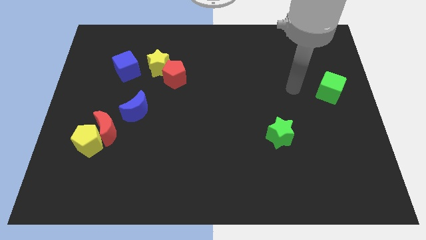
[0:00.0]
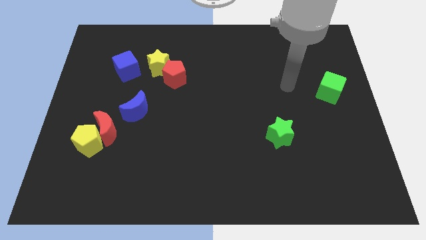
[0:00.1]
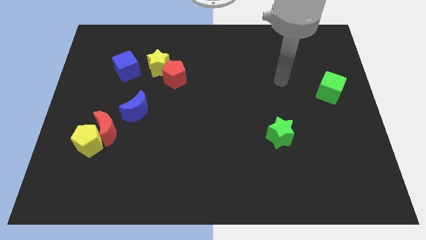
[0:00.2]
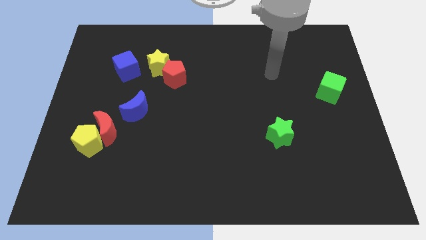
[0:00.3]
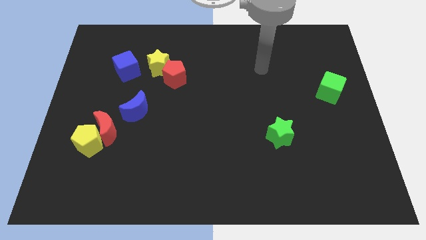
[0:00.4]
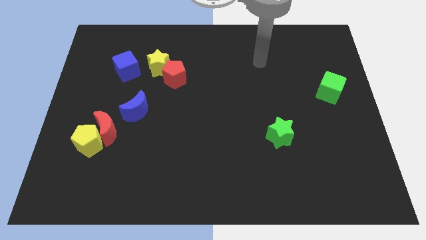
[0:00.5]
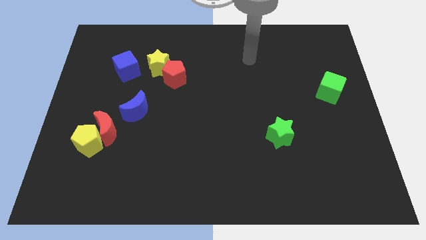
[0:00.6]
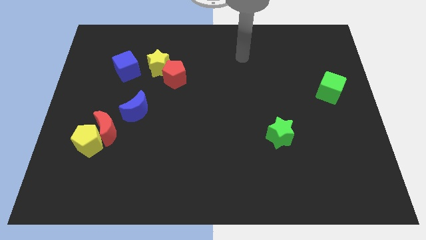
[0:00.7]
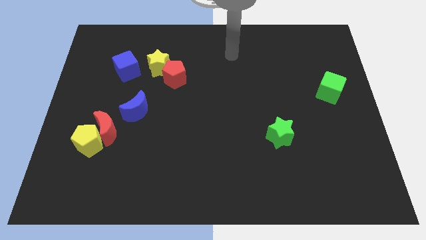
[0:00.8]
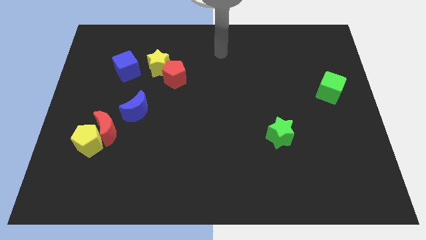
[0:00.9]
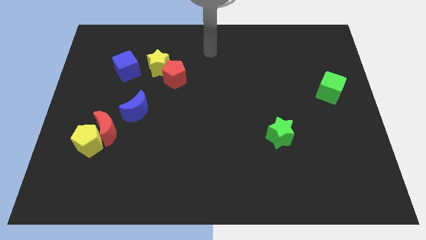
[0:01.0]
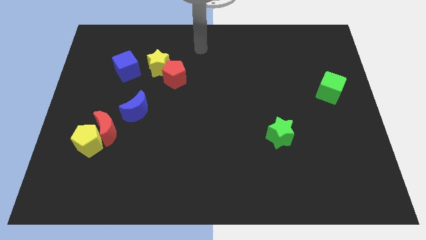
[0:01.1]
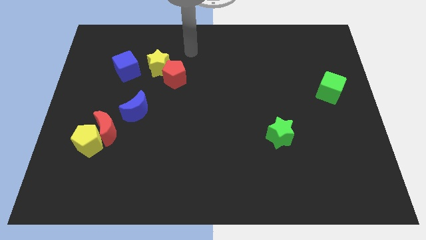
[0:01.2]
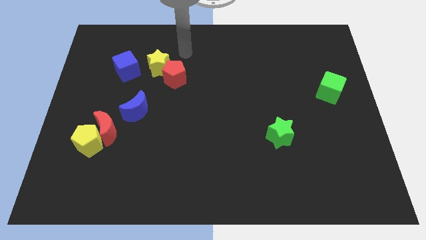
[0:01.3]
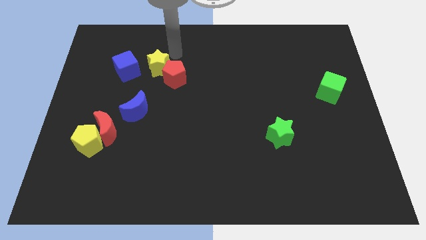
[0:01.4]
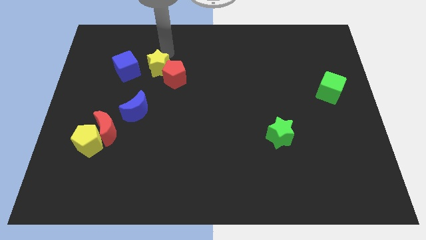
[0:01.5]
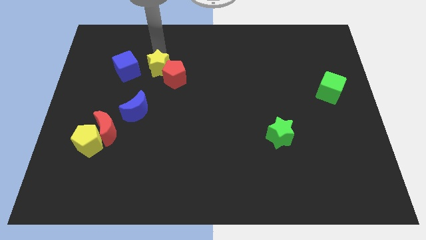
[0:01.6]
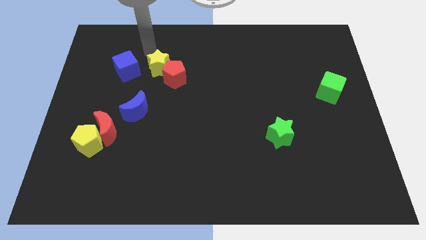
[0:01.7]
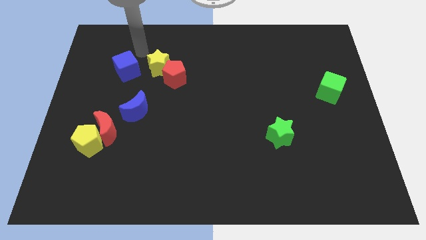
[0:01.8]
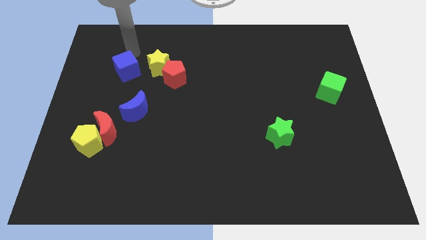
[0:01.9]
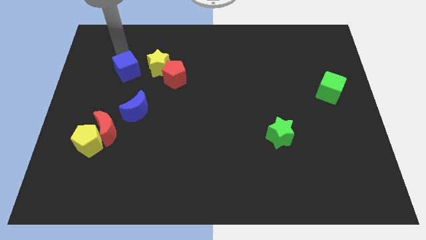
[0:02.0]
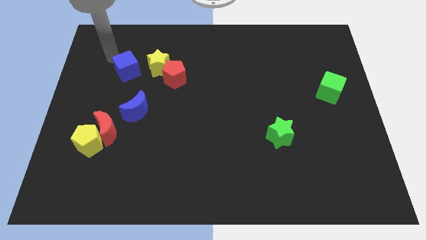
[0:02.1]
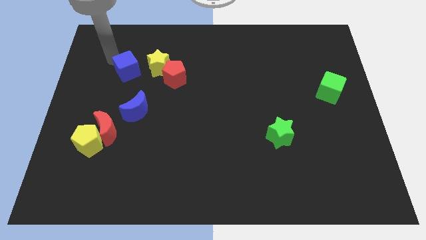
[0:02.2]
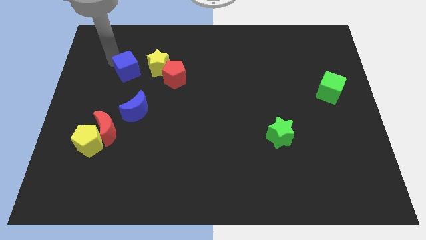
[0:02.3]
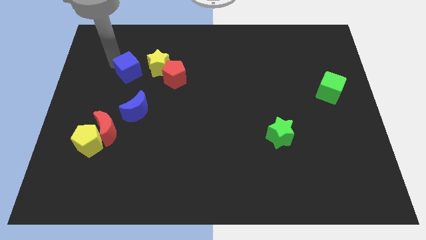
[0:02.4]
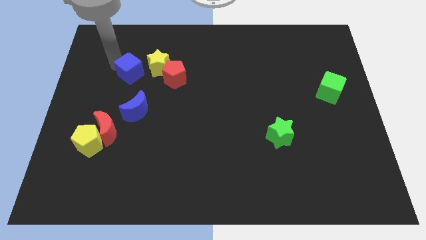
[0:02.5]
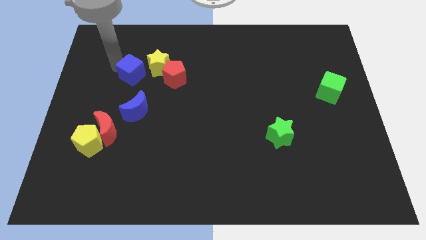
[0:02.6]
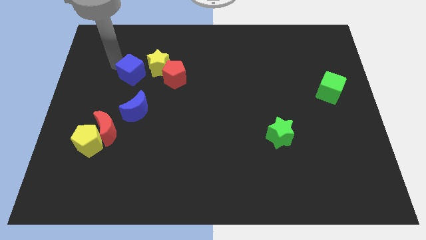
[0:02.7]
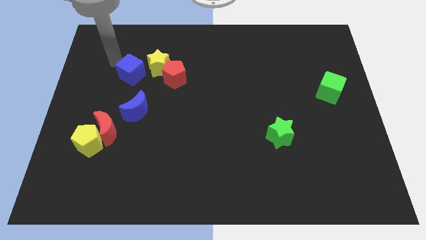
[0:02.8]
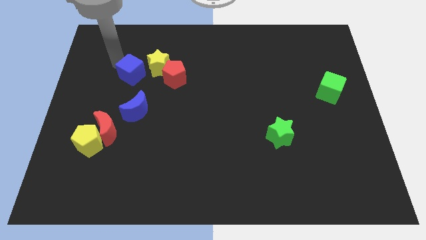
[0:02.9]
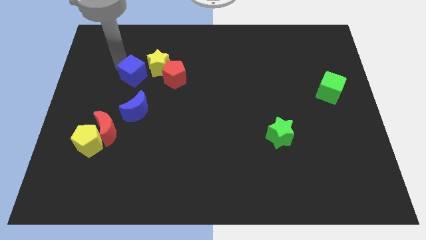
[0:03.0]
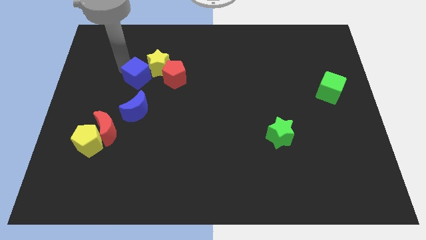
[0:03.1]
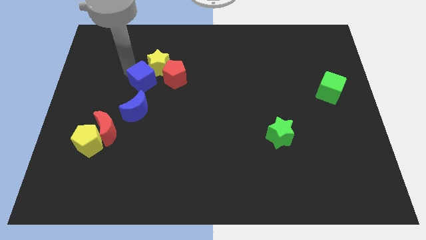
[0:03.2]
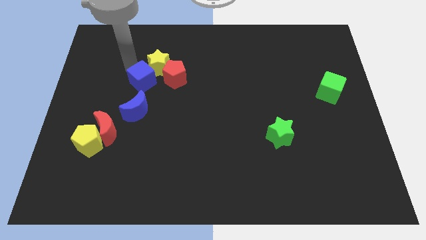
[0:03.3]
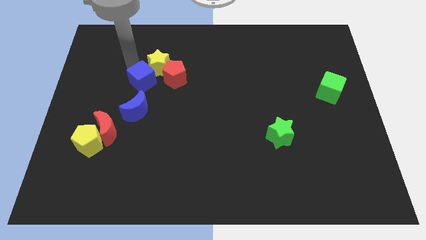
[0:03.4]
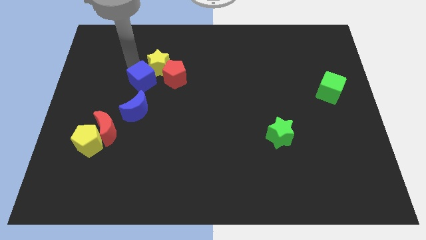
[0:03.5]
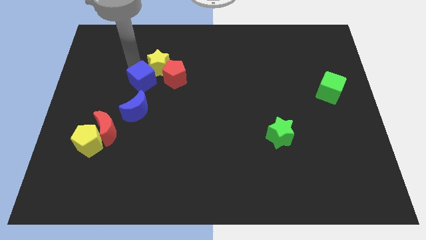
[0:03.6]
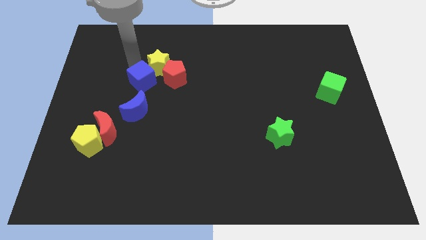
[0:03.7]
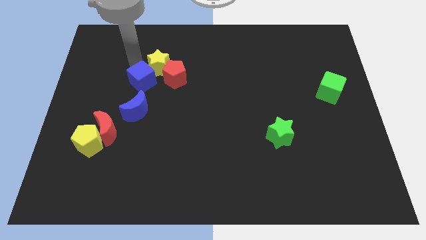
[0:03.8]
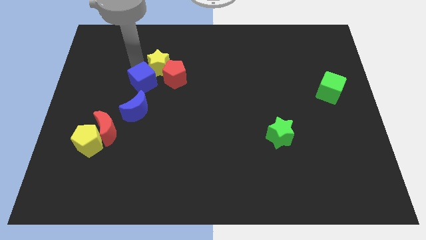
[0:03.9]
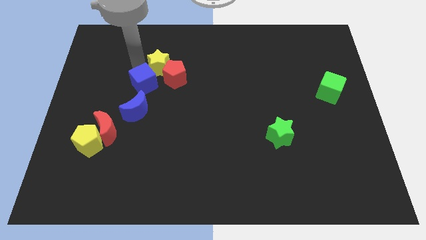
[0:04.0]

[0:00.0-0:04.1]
push the blue cube a little downwards and right

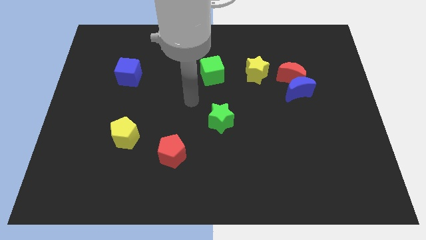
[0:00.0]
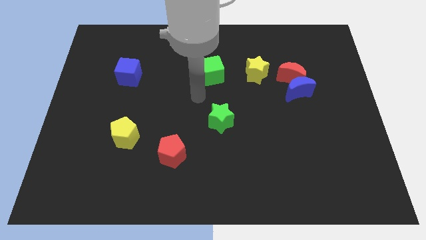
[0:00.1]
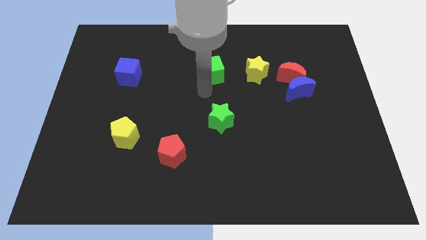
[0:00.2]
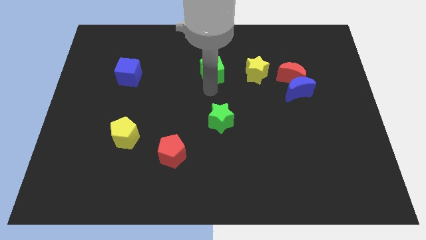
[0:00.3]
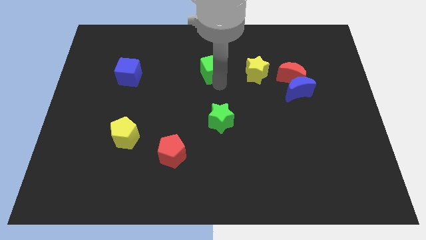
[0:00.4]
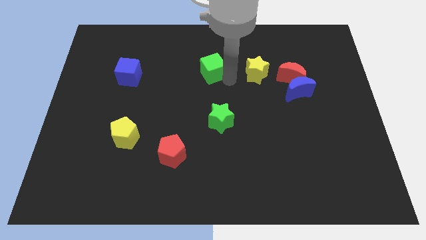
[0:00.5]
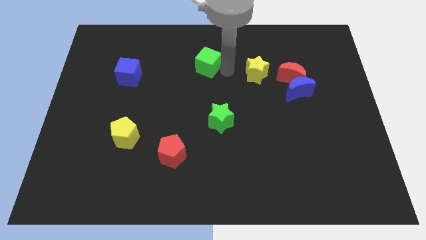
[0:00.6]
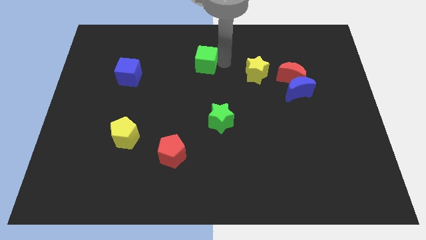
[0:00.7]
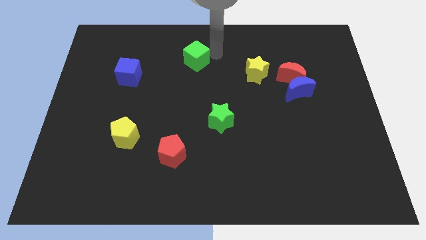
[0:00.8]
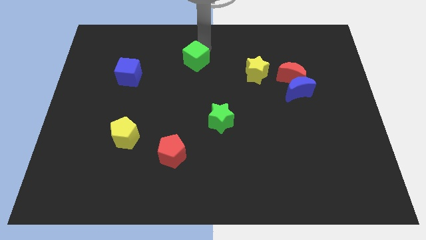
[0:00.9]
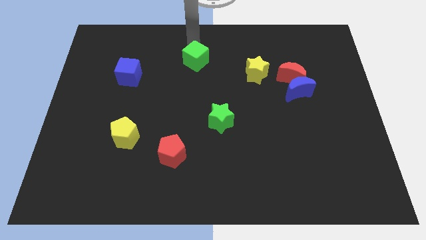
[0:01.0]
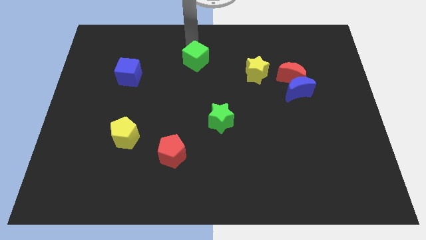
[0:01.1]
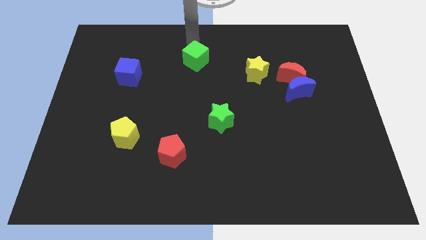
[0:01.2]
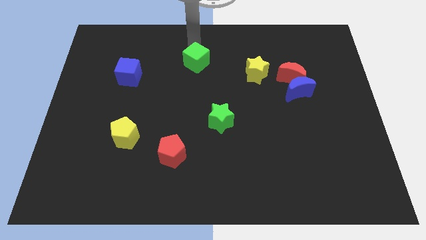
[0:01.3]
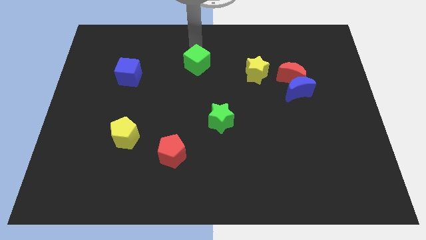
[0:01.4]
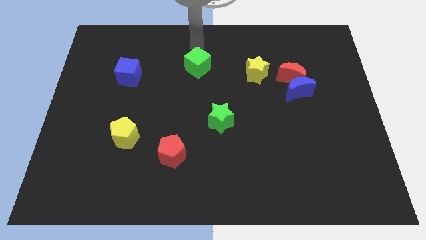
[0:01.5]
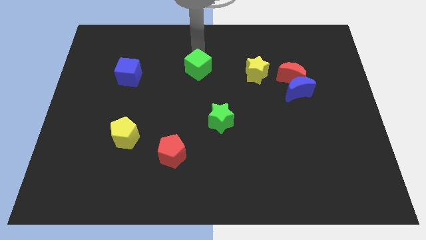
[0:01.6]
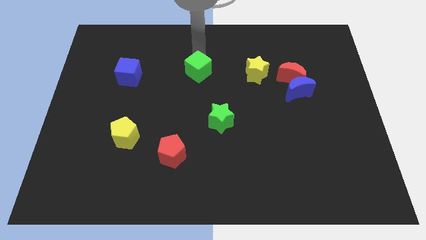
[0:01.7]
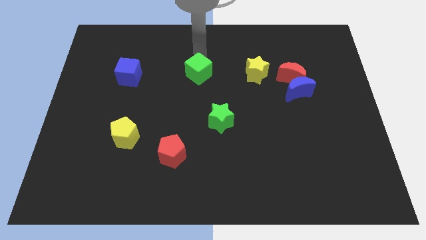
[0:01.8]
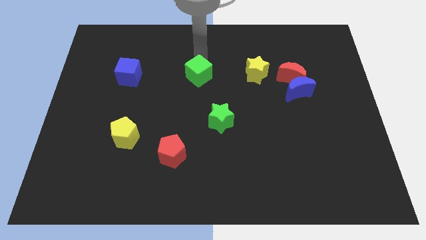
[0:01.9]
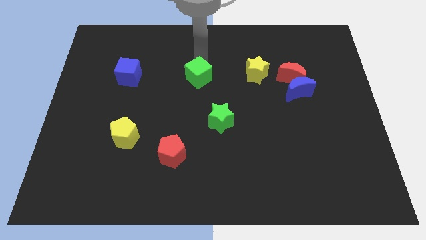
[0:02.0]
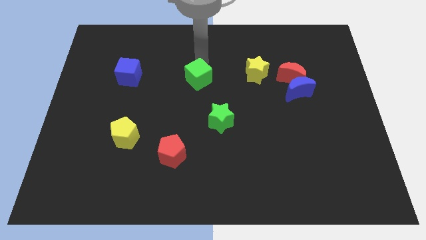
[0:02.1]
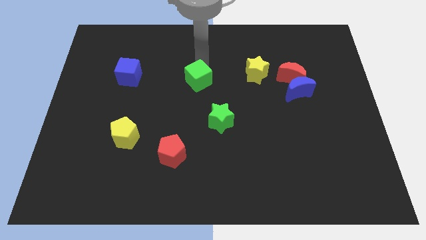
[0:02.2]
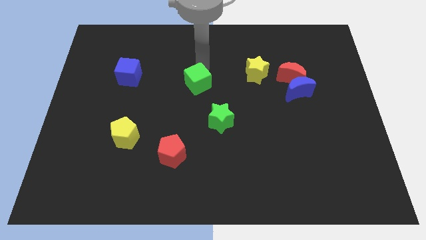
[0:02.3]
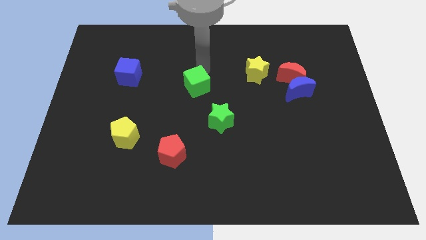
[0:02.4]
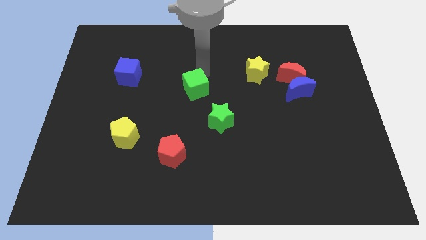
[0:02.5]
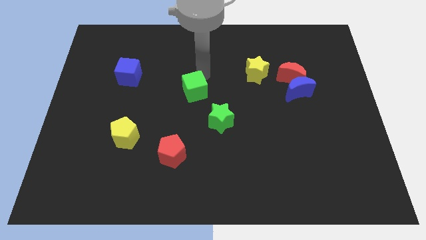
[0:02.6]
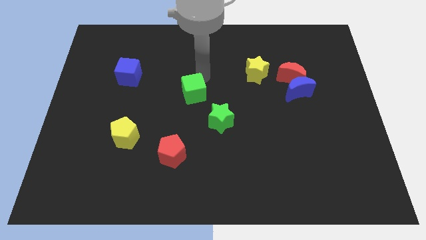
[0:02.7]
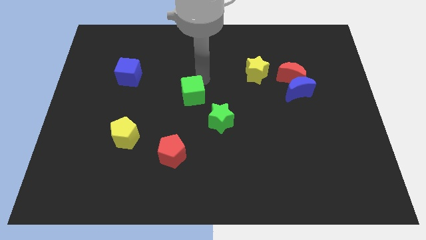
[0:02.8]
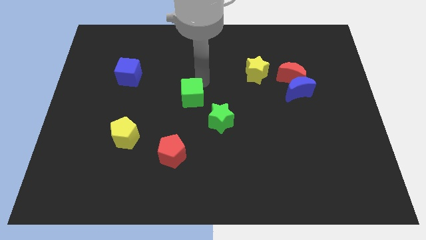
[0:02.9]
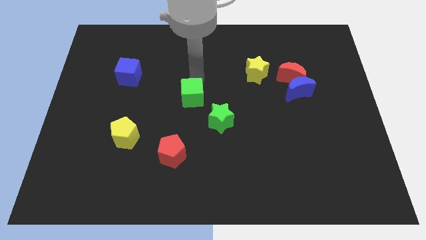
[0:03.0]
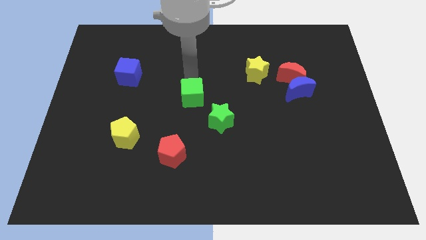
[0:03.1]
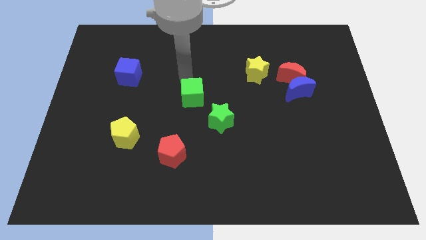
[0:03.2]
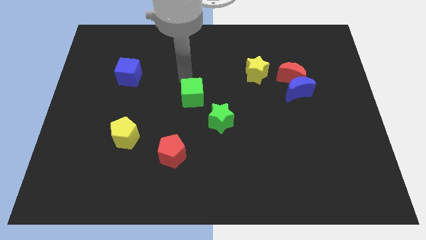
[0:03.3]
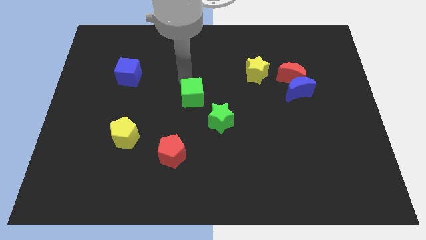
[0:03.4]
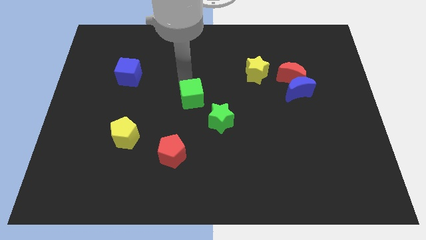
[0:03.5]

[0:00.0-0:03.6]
move the green cube a bit down

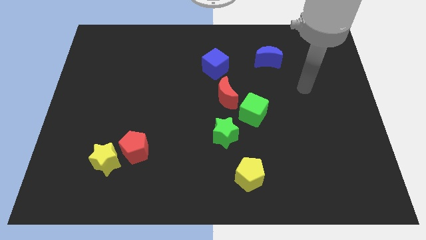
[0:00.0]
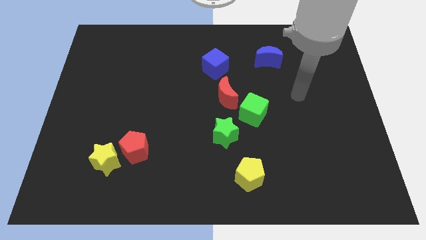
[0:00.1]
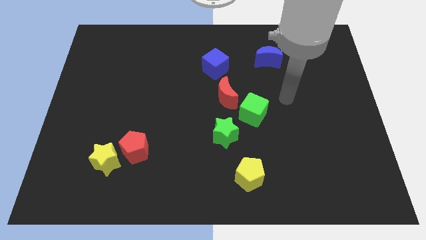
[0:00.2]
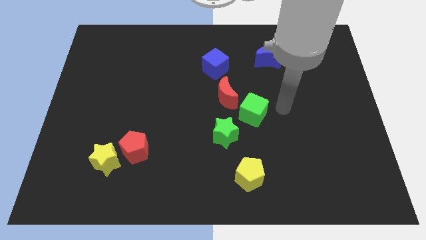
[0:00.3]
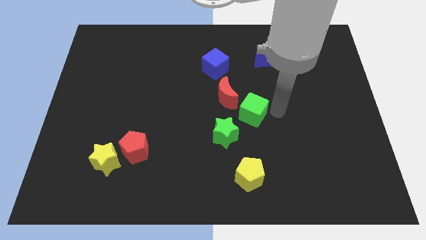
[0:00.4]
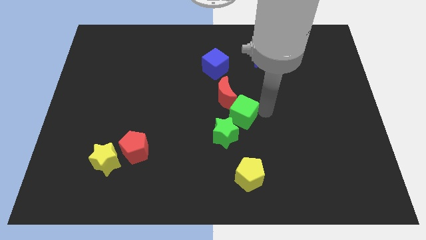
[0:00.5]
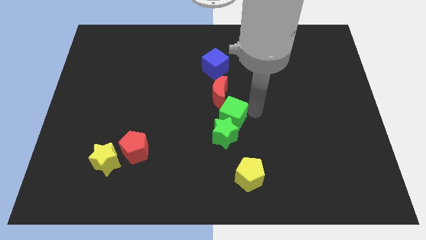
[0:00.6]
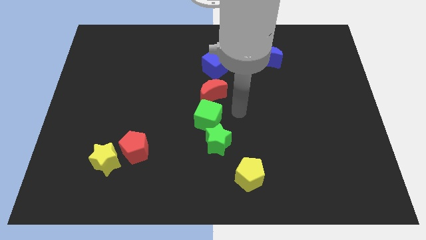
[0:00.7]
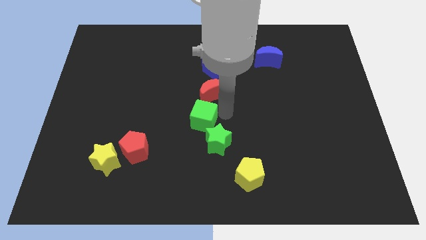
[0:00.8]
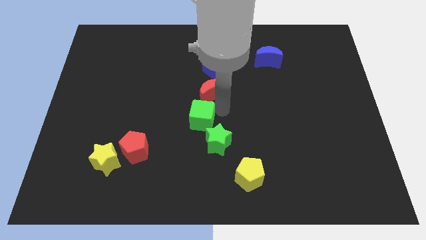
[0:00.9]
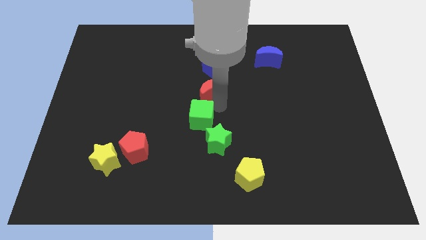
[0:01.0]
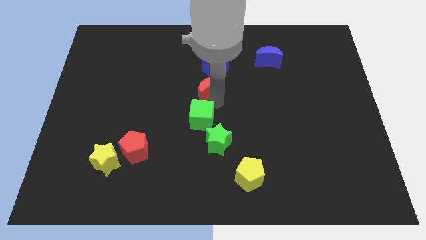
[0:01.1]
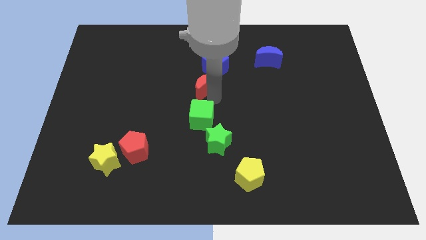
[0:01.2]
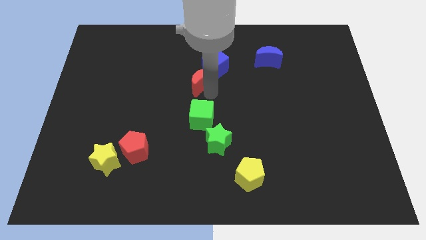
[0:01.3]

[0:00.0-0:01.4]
slide the red moon upwards and then to the left a little bit
